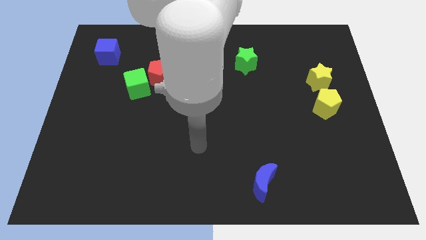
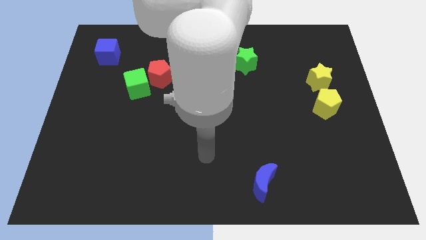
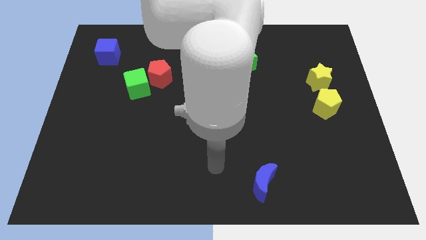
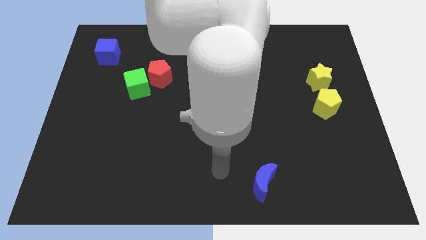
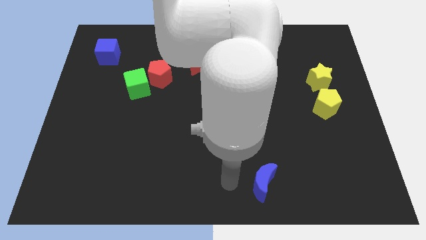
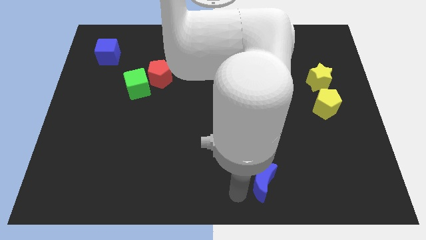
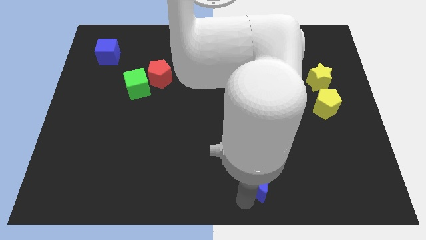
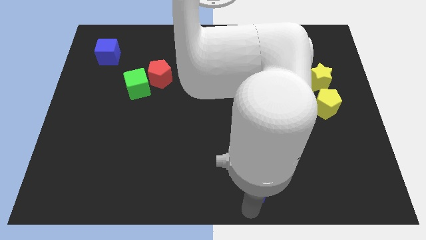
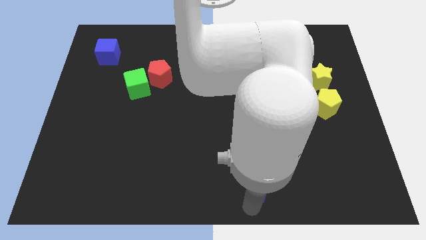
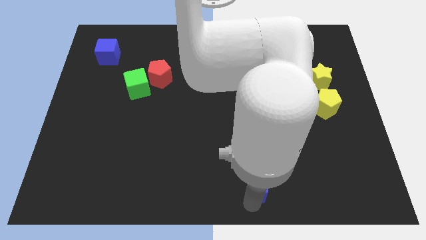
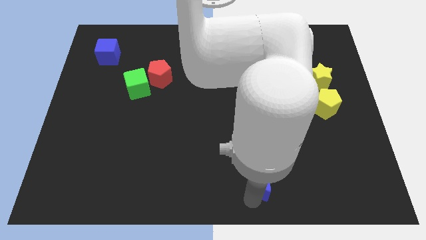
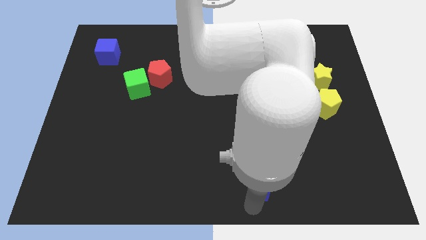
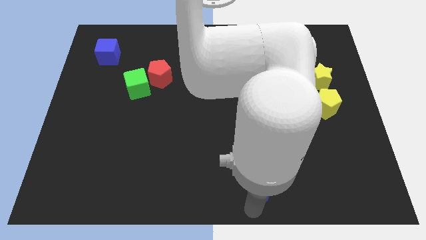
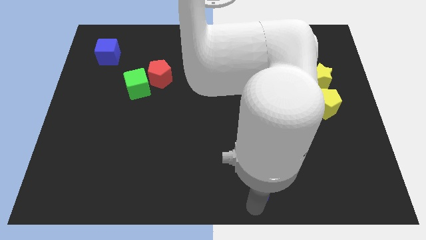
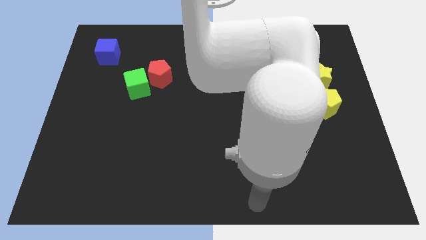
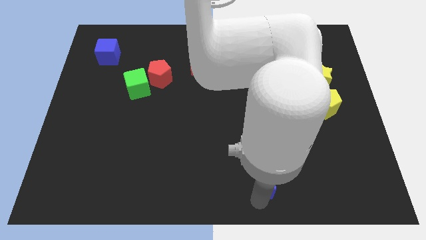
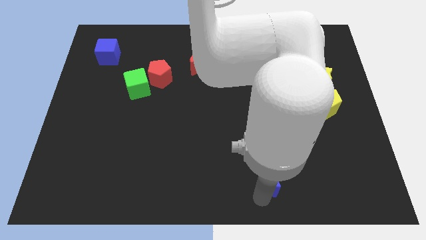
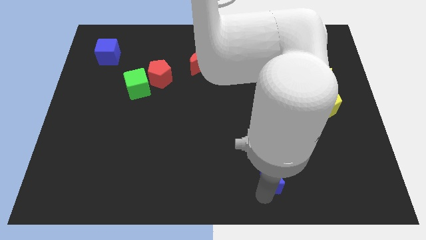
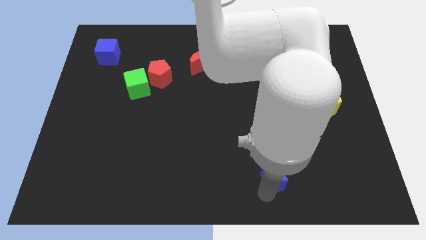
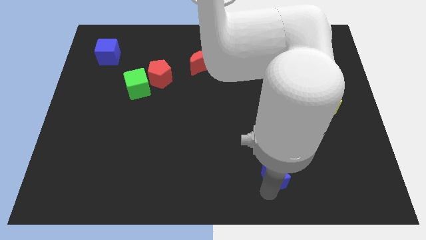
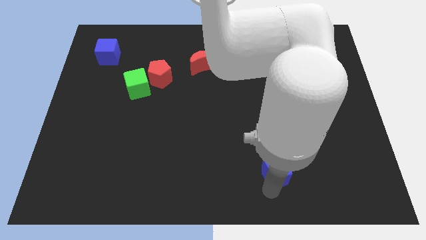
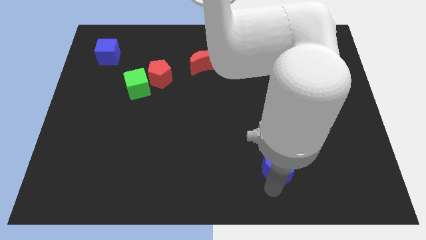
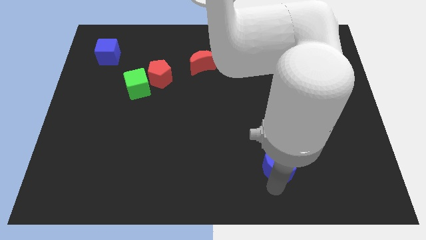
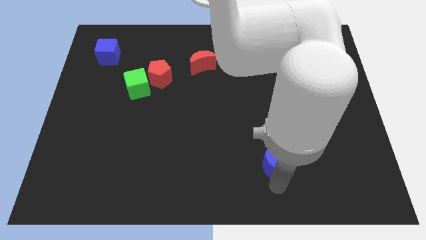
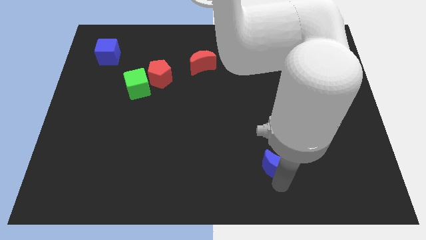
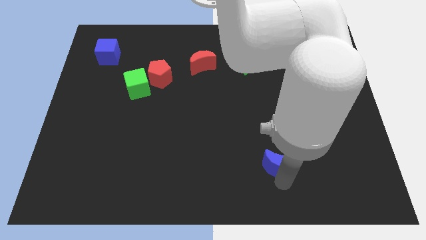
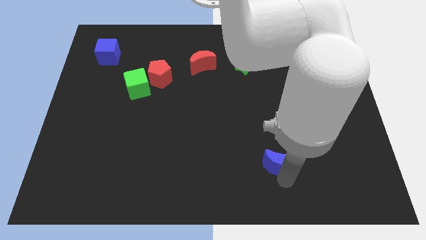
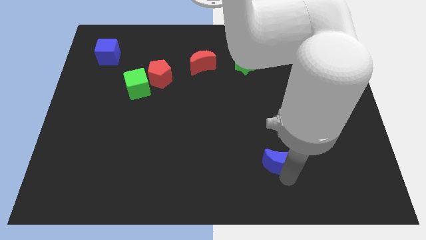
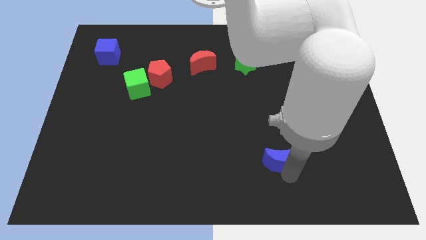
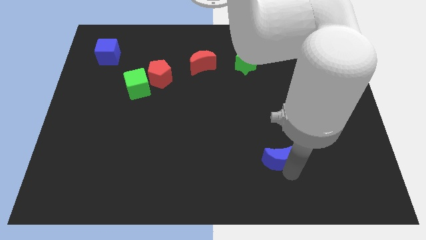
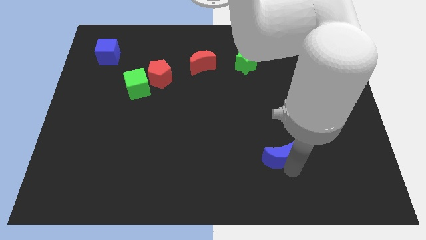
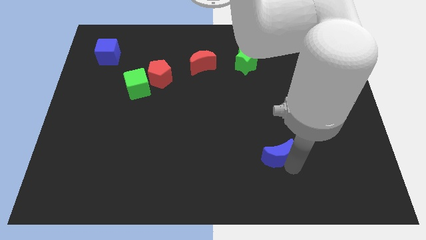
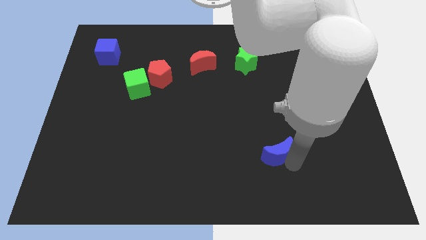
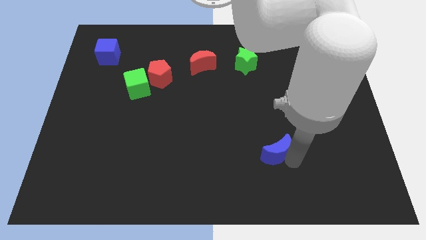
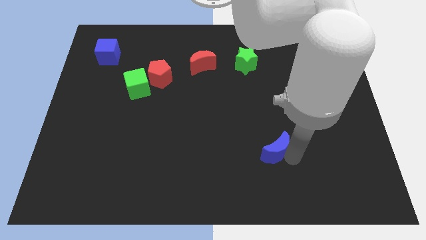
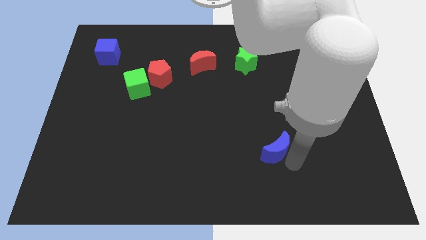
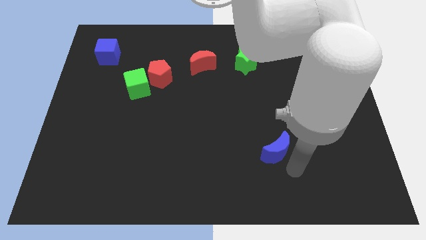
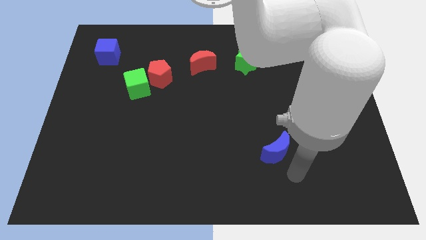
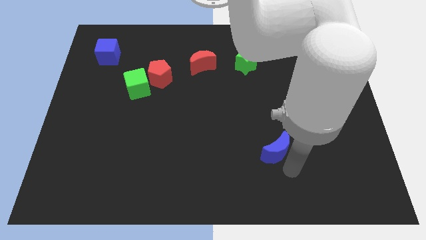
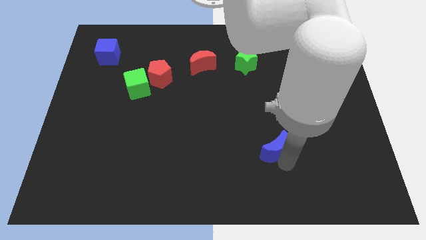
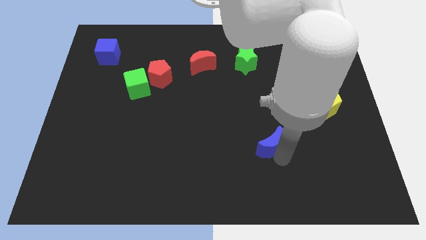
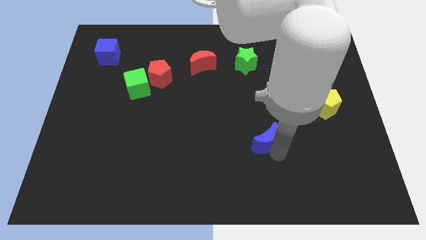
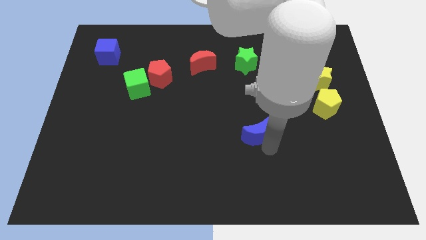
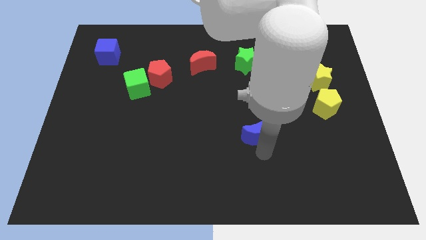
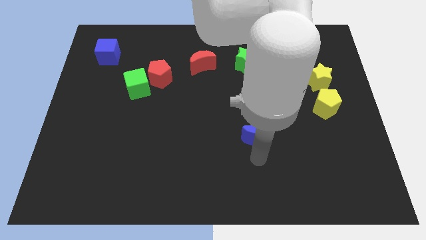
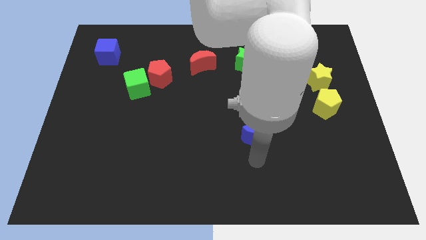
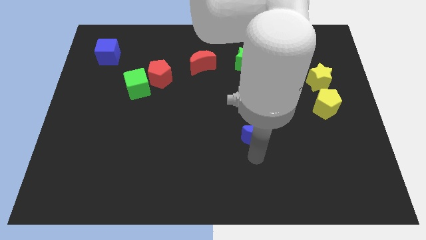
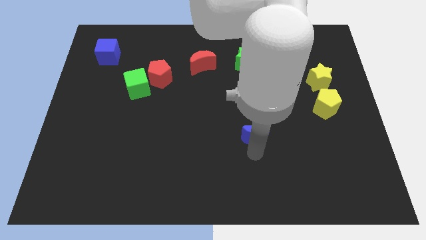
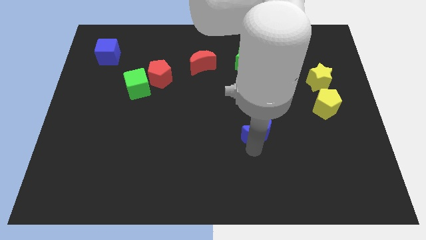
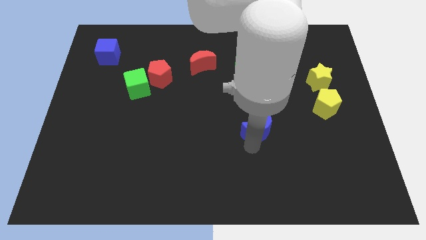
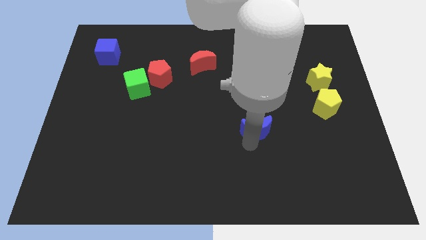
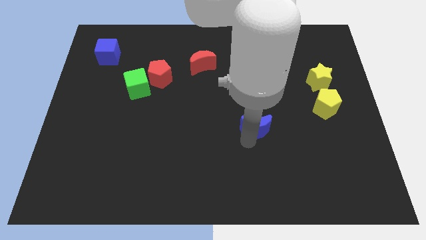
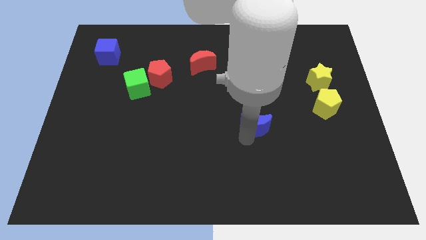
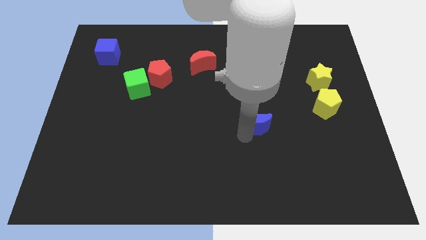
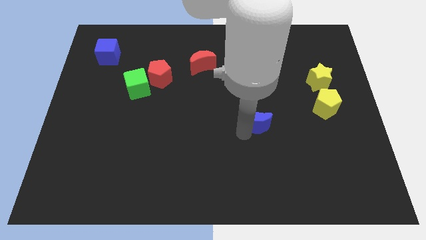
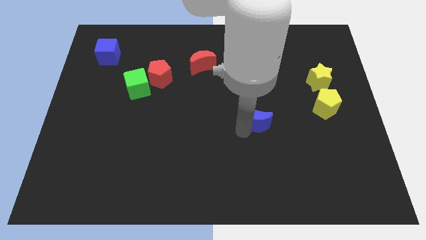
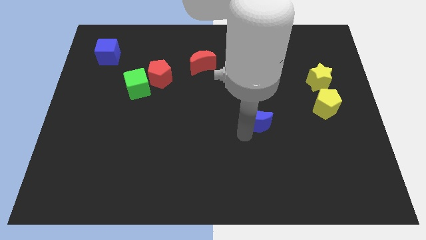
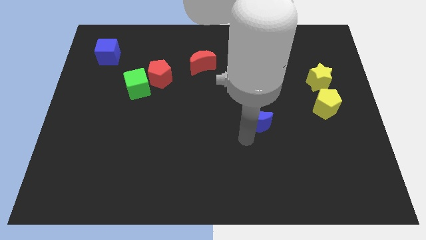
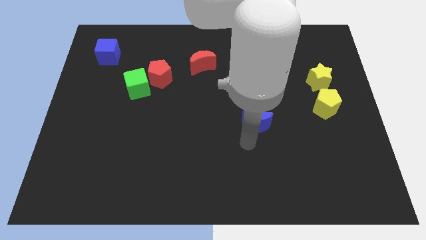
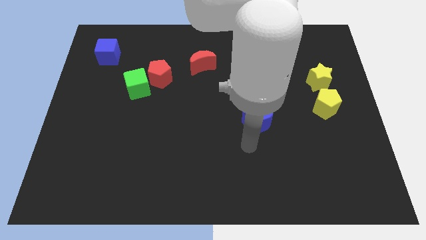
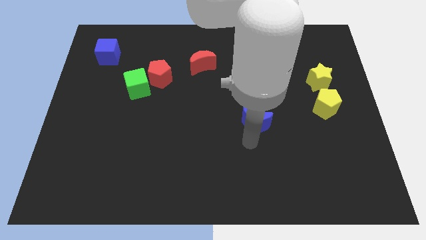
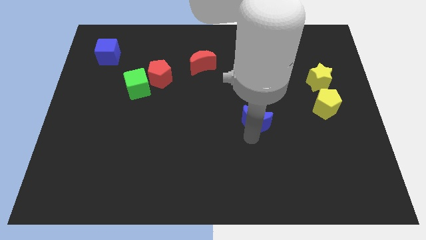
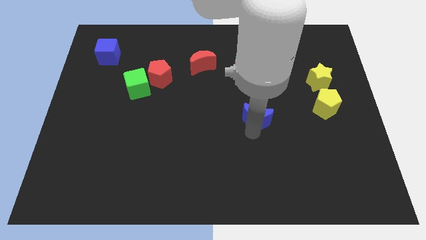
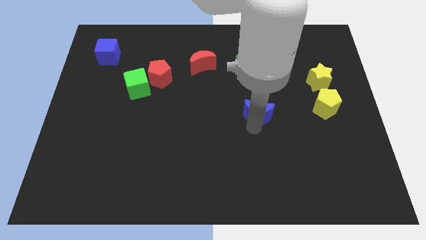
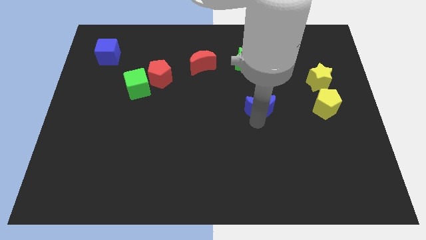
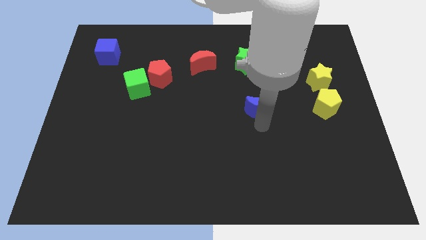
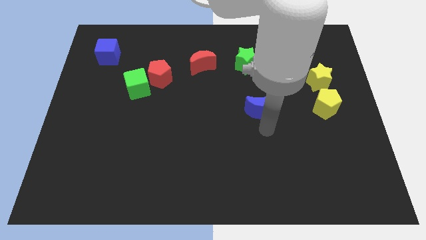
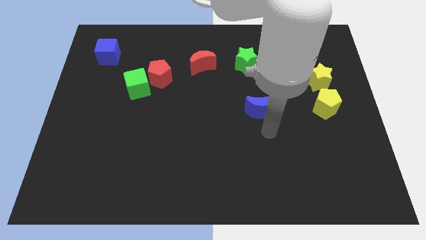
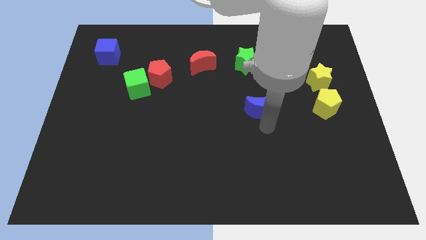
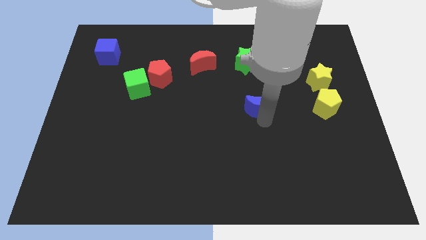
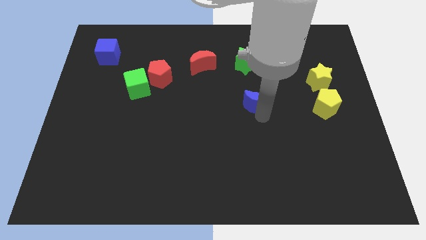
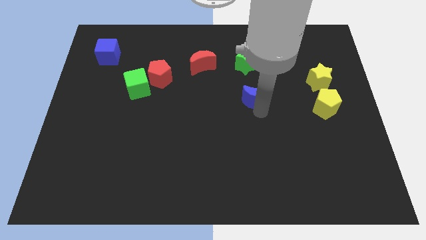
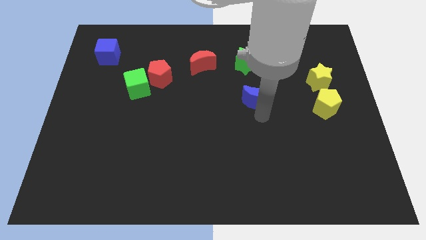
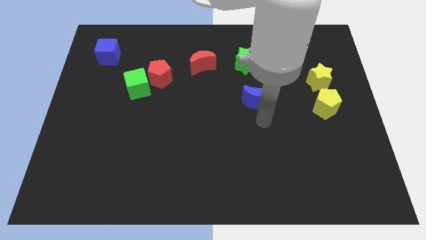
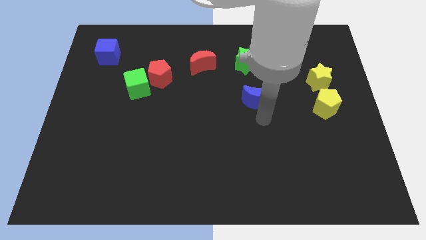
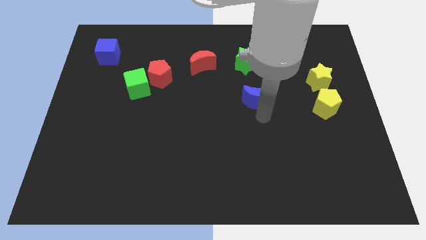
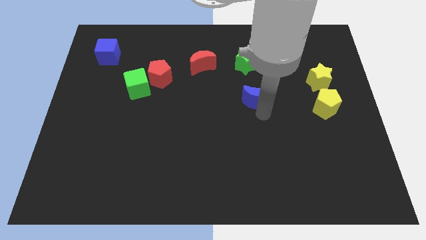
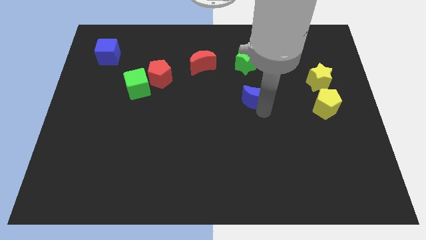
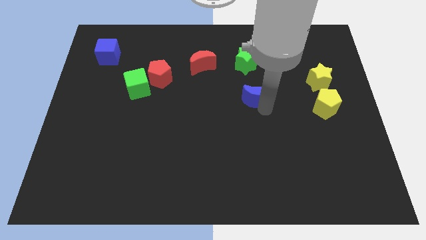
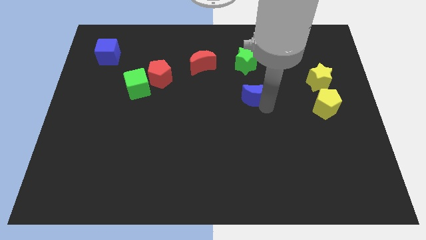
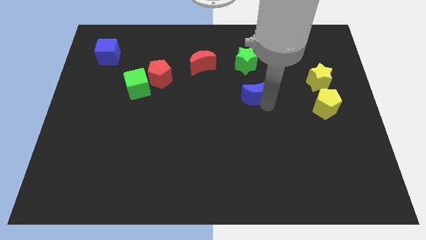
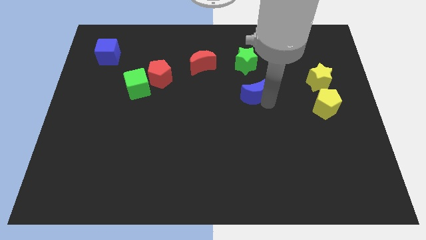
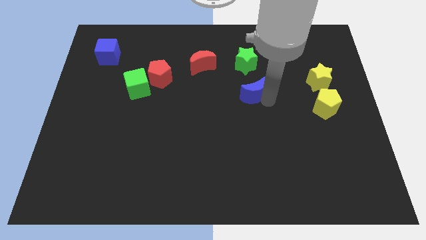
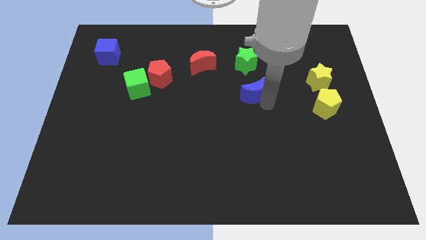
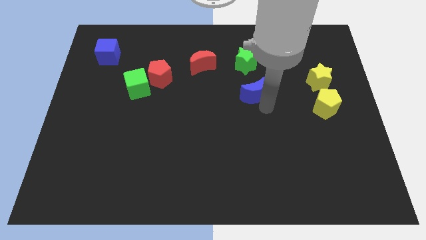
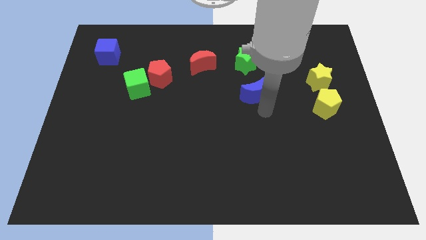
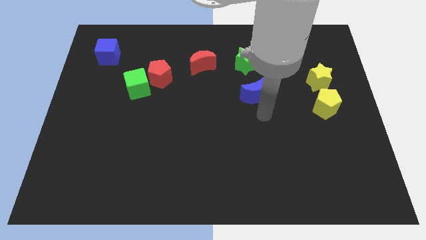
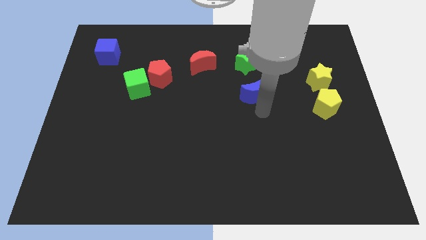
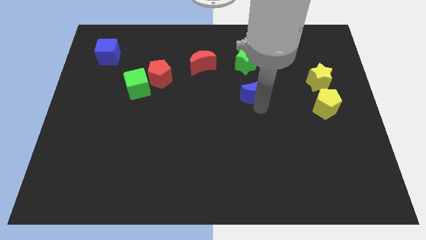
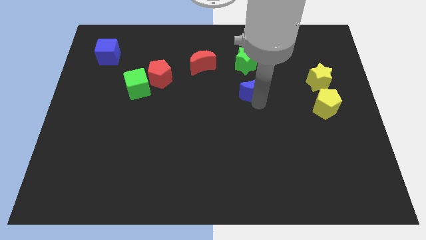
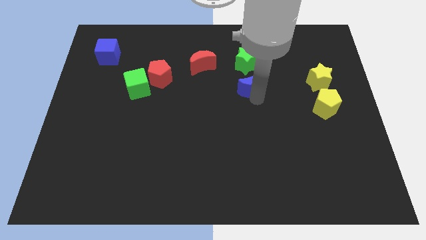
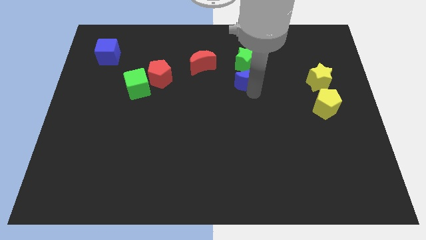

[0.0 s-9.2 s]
put the blue moon next to the green star
